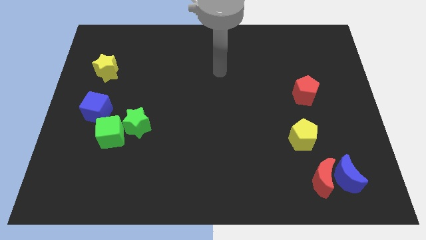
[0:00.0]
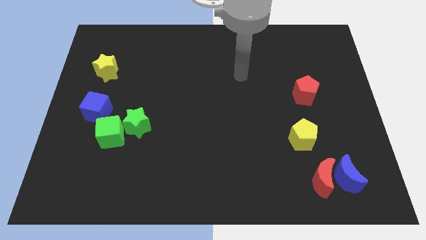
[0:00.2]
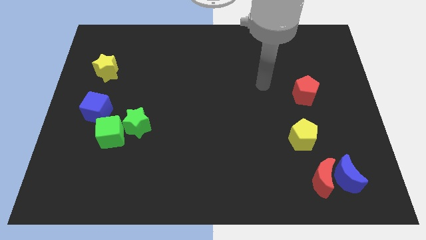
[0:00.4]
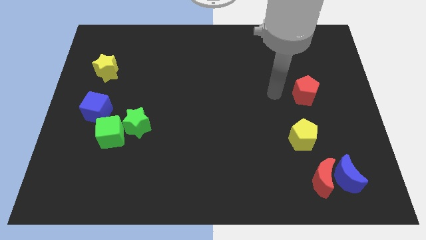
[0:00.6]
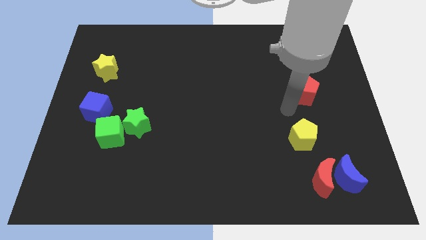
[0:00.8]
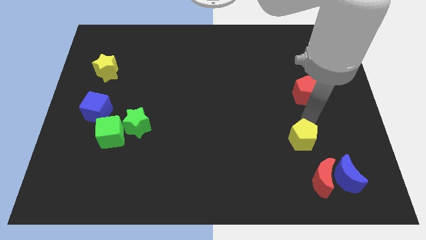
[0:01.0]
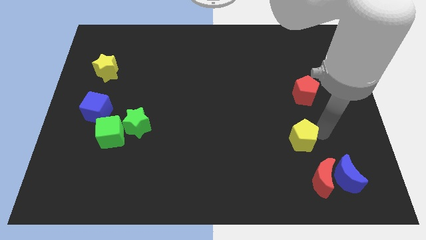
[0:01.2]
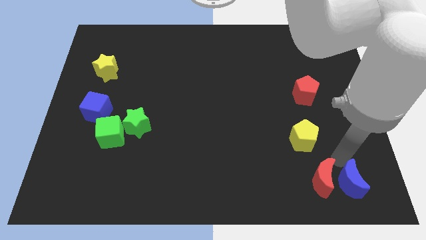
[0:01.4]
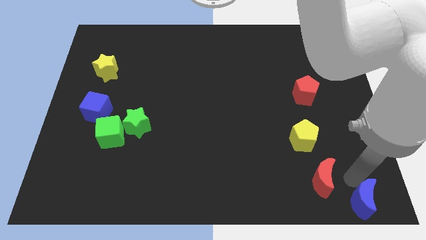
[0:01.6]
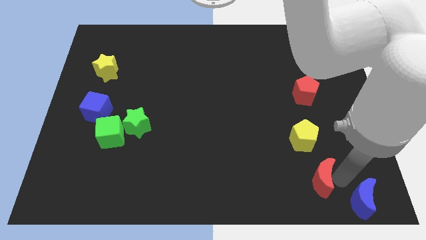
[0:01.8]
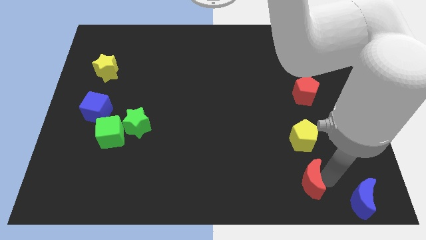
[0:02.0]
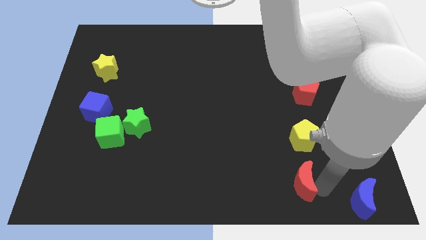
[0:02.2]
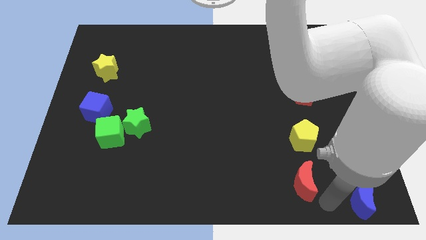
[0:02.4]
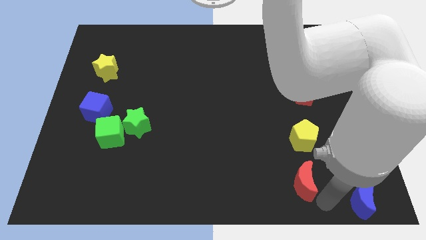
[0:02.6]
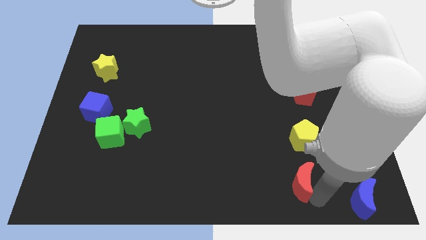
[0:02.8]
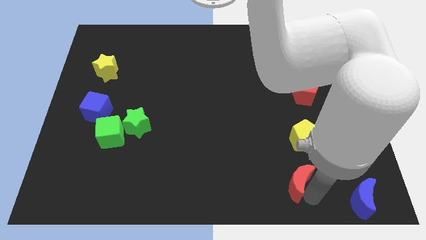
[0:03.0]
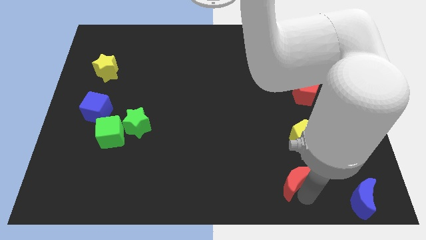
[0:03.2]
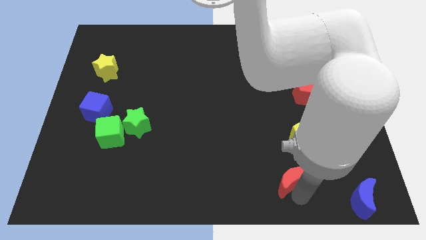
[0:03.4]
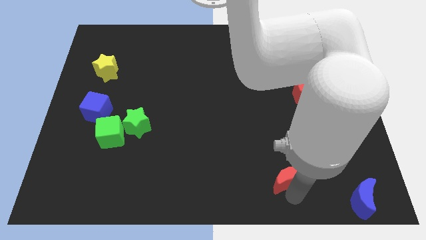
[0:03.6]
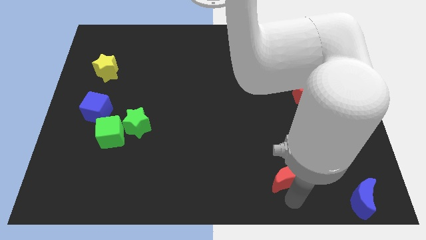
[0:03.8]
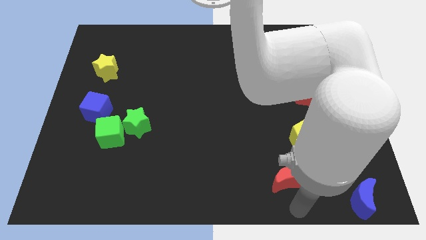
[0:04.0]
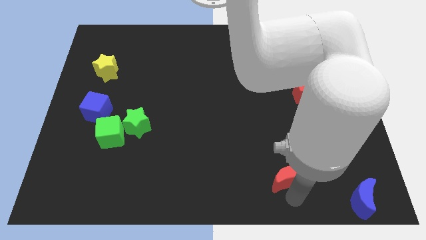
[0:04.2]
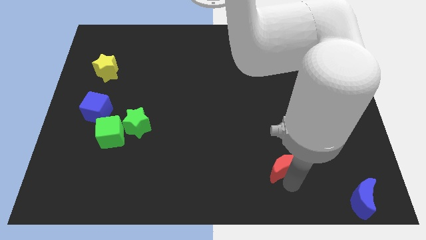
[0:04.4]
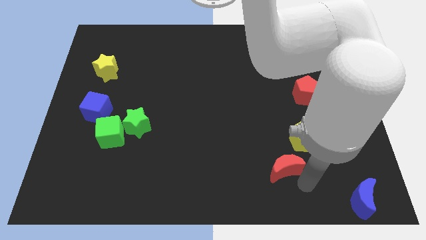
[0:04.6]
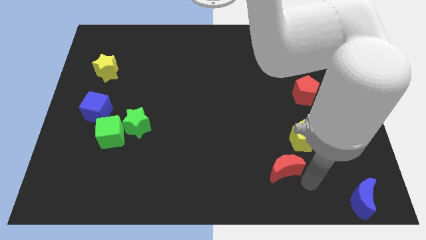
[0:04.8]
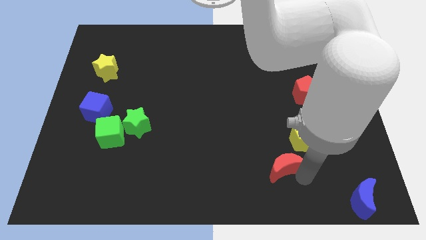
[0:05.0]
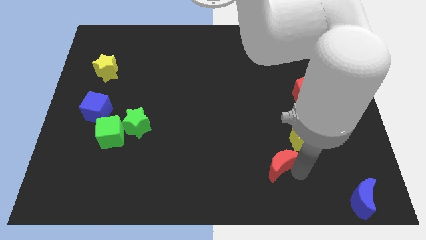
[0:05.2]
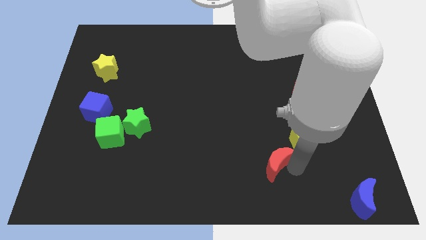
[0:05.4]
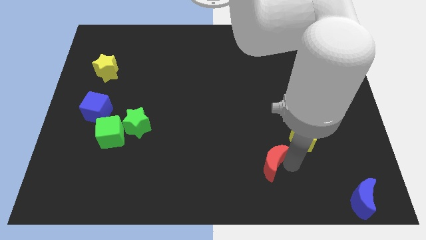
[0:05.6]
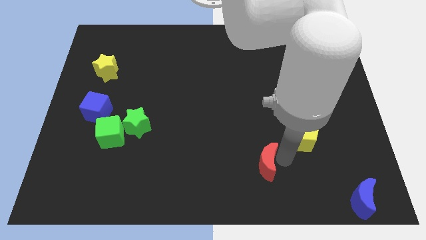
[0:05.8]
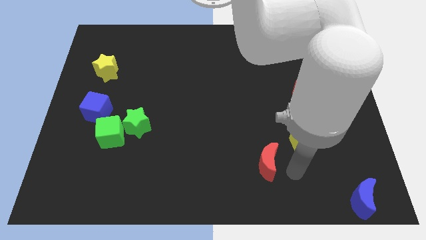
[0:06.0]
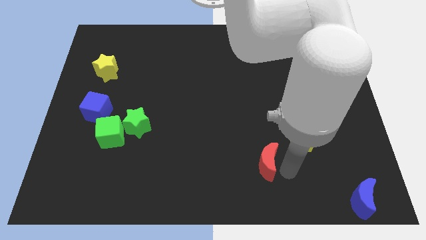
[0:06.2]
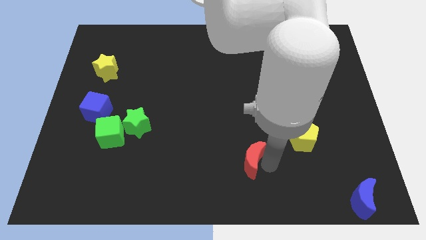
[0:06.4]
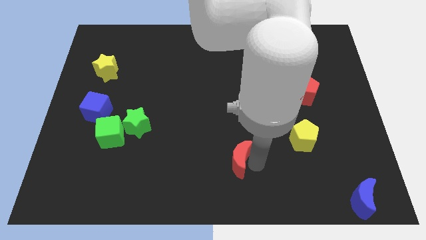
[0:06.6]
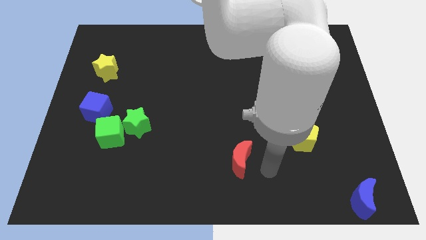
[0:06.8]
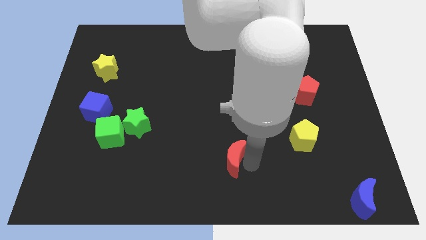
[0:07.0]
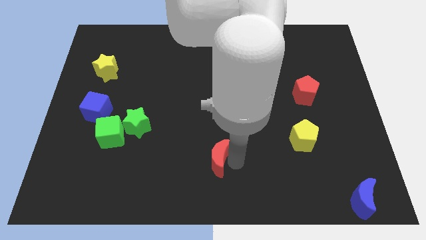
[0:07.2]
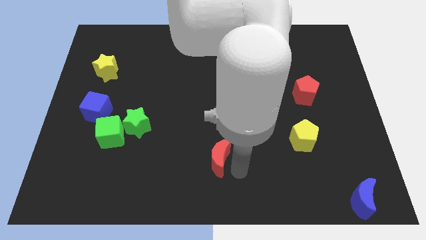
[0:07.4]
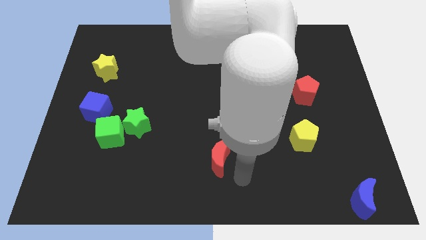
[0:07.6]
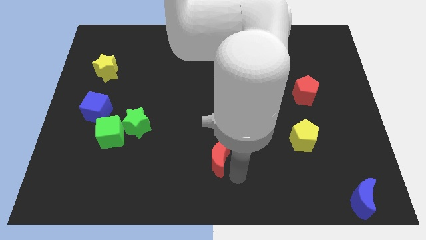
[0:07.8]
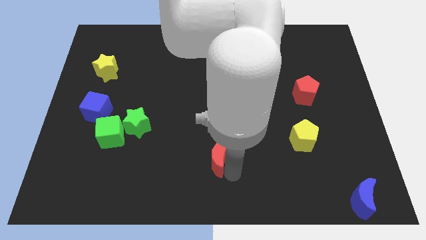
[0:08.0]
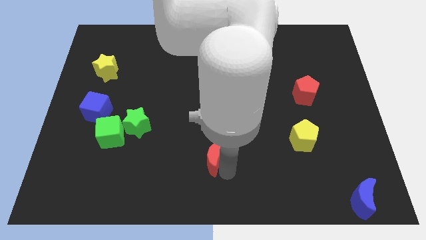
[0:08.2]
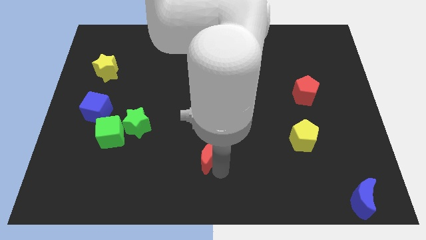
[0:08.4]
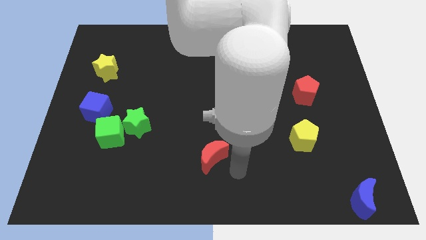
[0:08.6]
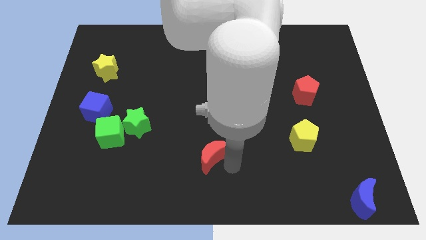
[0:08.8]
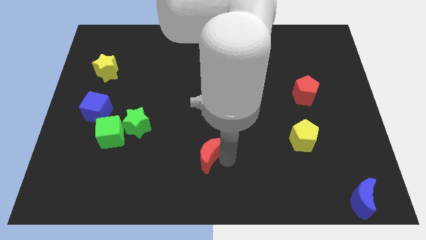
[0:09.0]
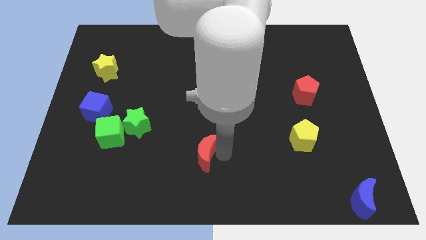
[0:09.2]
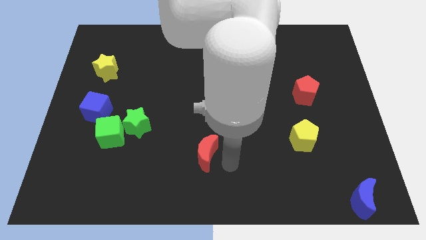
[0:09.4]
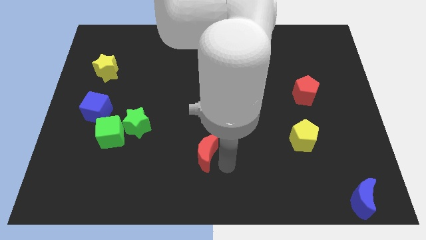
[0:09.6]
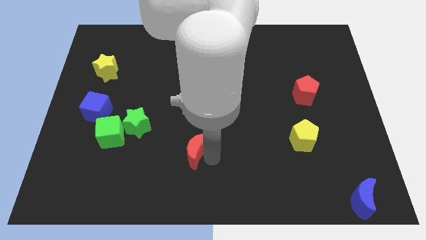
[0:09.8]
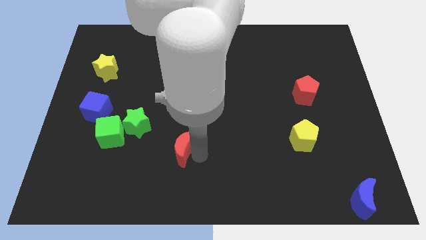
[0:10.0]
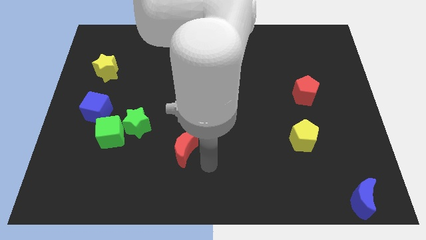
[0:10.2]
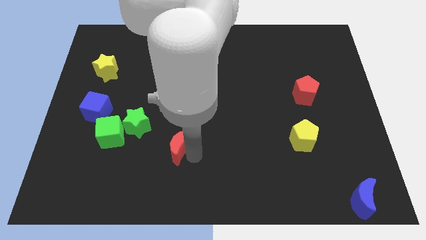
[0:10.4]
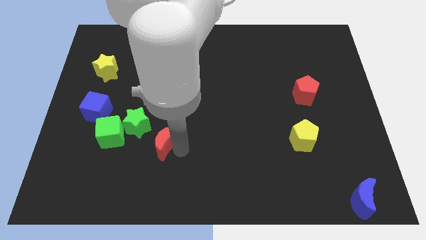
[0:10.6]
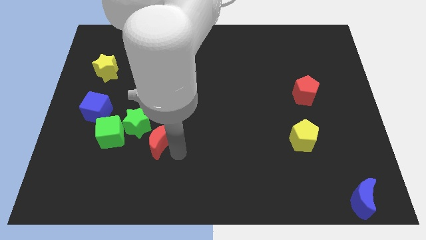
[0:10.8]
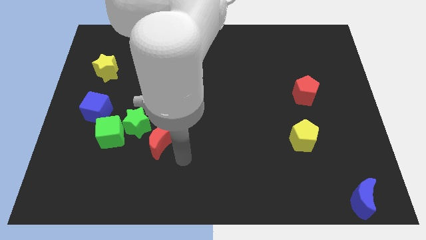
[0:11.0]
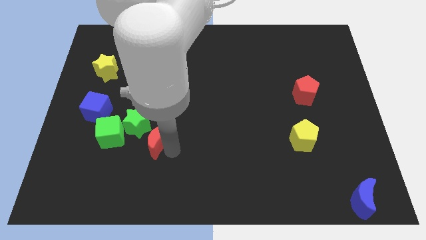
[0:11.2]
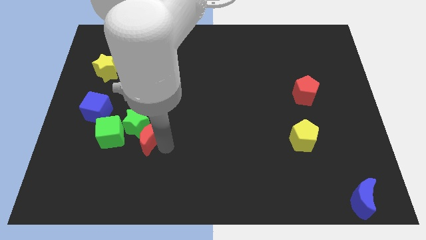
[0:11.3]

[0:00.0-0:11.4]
slide the red moon to the green star

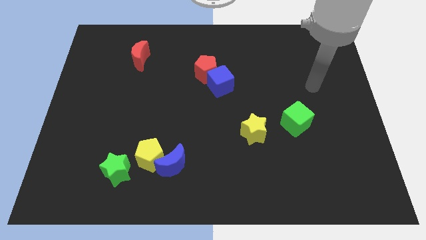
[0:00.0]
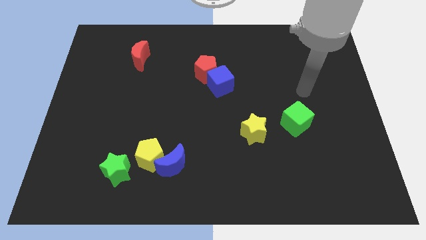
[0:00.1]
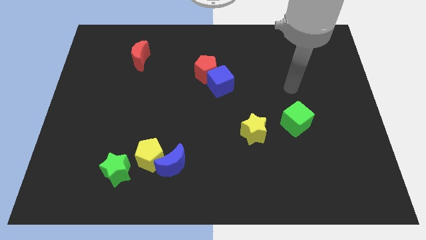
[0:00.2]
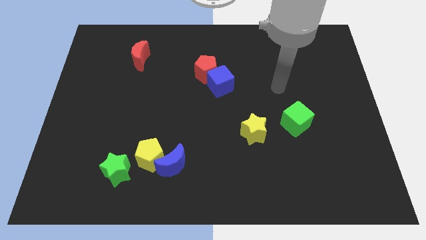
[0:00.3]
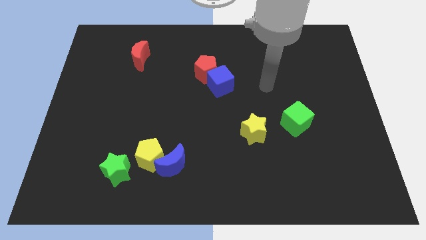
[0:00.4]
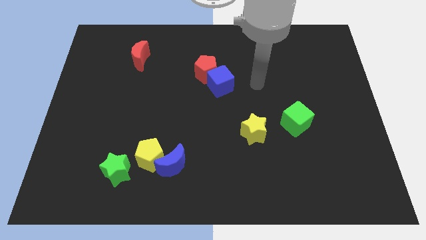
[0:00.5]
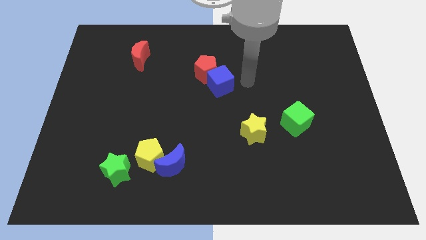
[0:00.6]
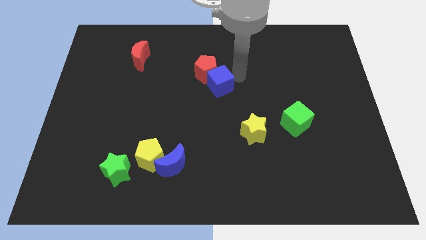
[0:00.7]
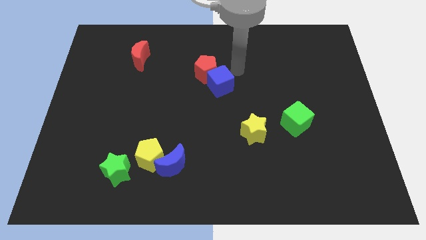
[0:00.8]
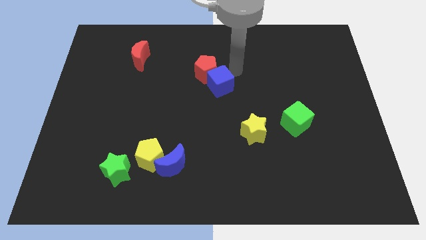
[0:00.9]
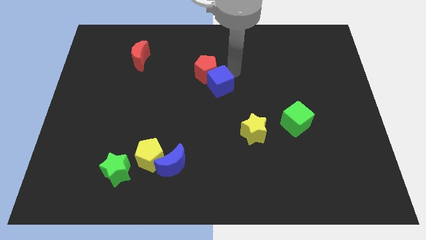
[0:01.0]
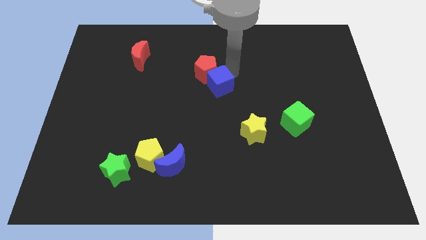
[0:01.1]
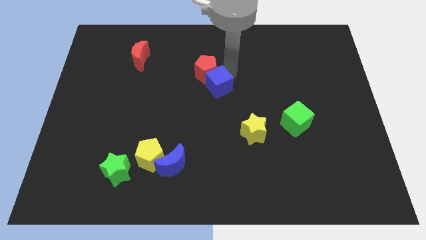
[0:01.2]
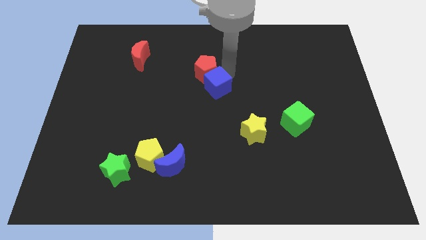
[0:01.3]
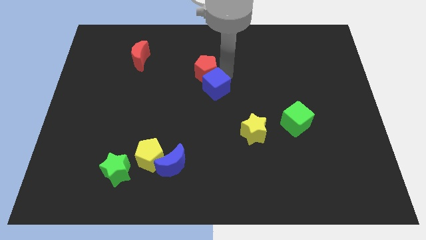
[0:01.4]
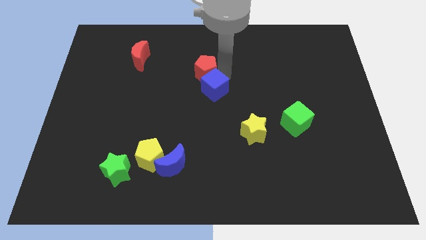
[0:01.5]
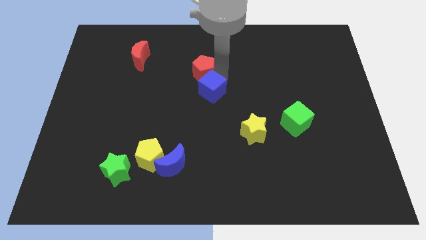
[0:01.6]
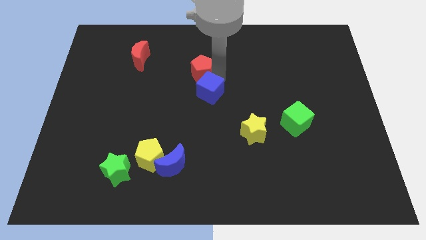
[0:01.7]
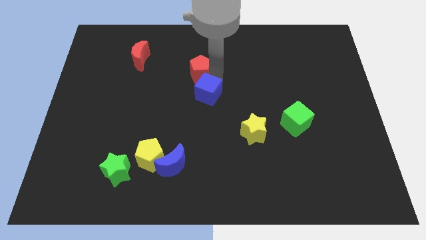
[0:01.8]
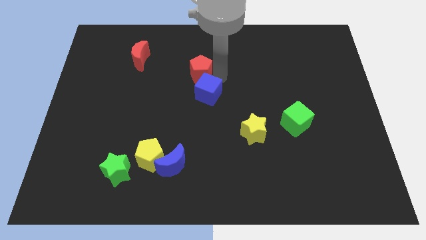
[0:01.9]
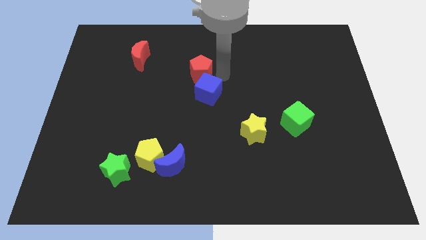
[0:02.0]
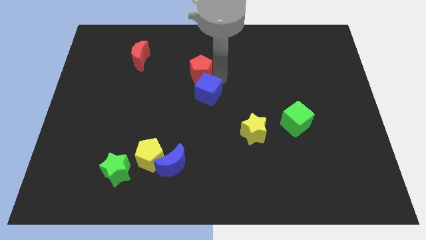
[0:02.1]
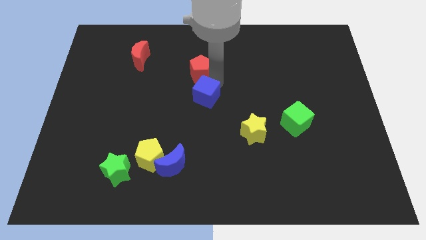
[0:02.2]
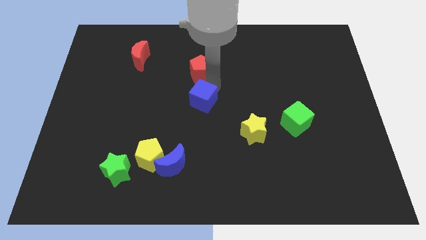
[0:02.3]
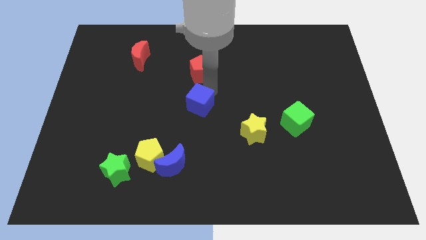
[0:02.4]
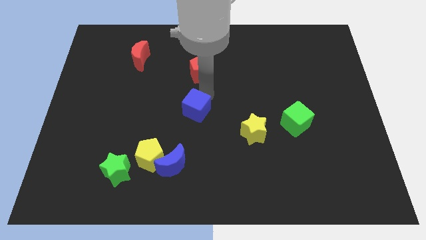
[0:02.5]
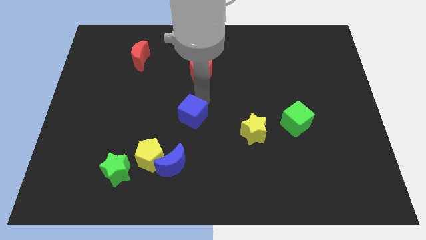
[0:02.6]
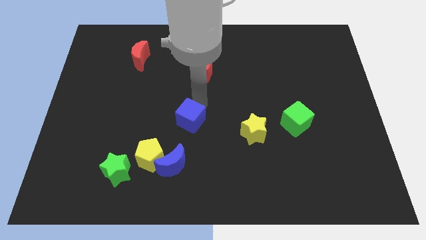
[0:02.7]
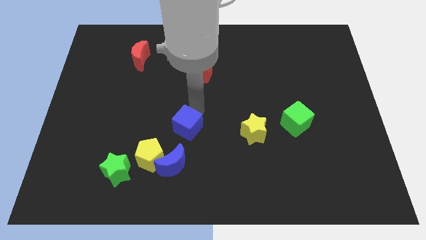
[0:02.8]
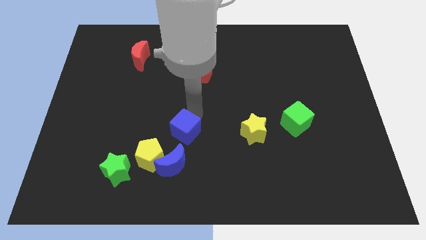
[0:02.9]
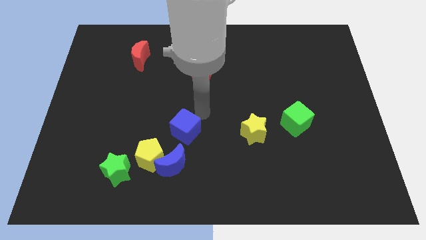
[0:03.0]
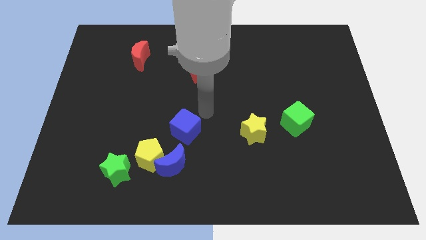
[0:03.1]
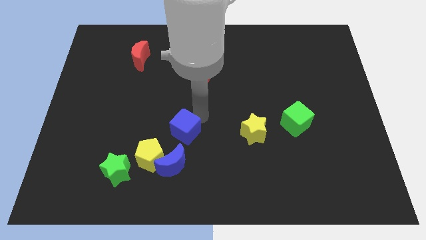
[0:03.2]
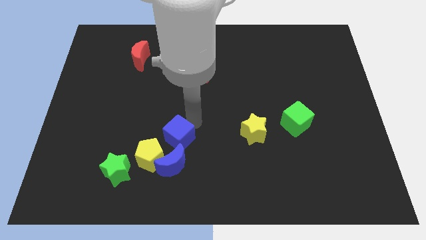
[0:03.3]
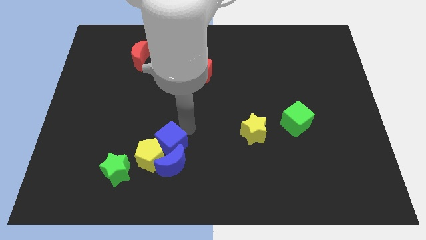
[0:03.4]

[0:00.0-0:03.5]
move the blue cube next to the yellow pentagon
